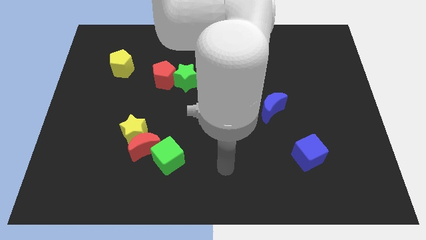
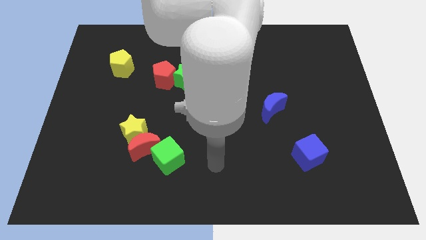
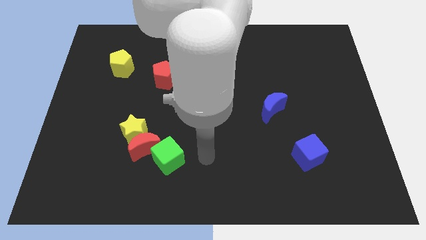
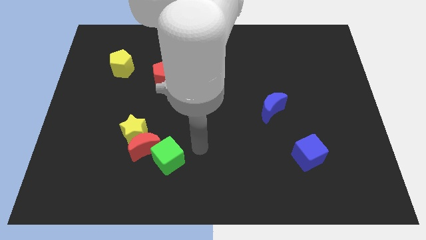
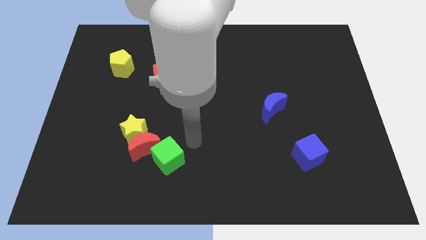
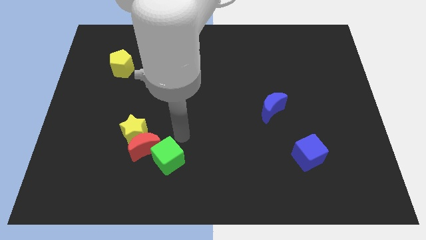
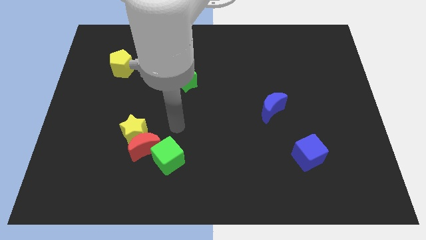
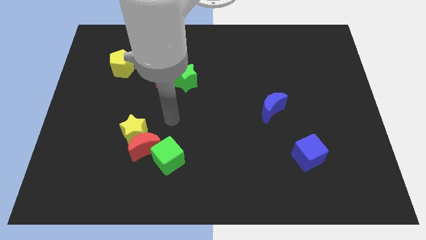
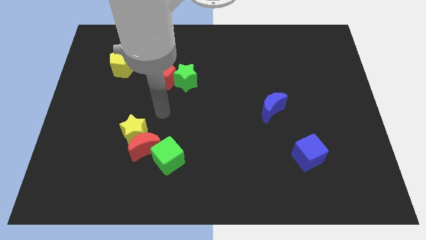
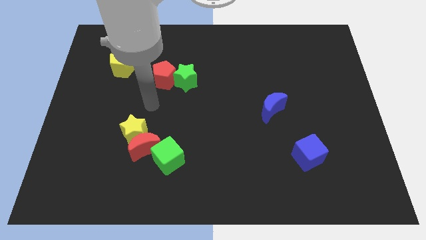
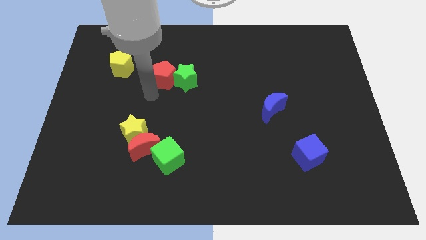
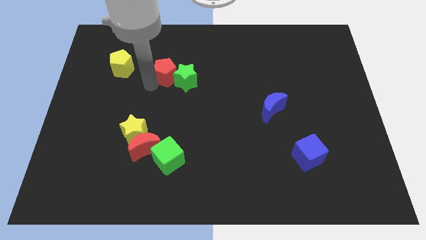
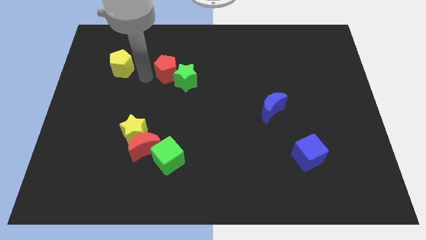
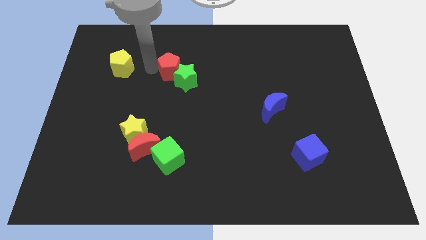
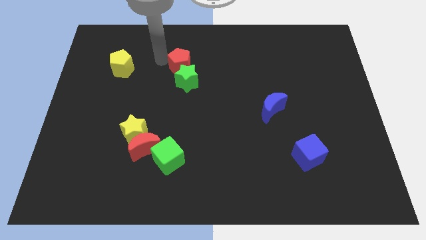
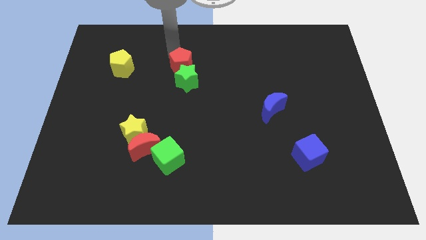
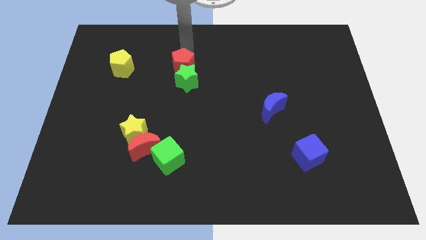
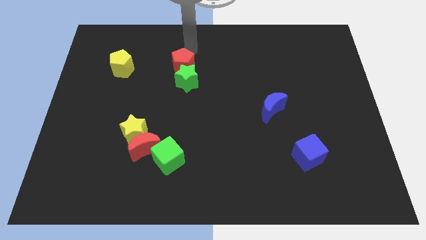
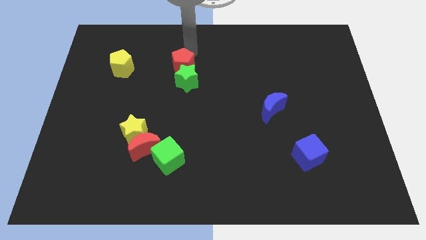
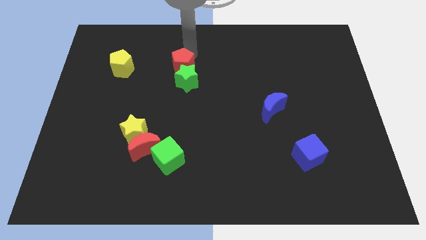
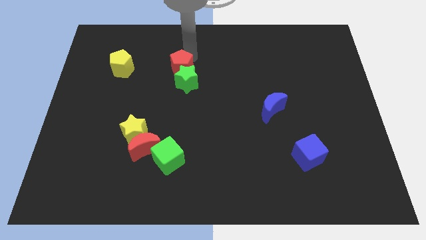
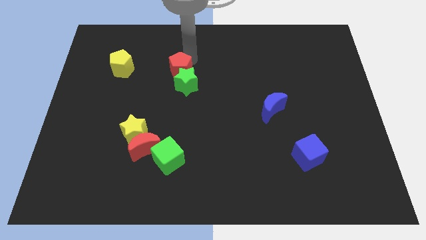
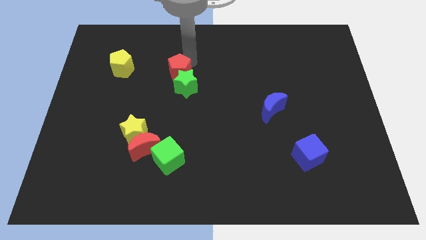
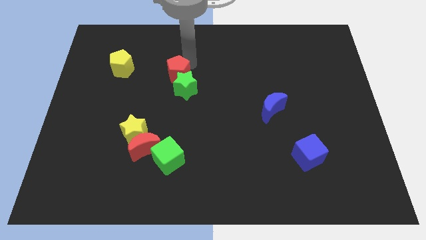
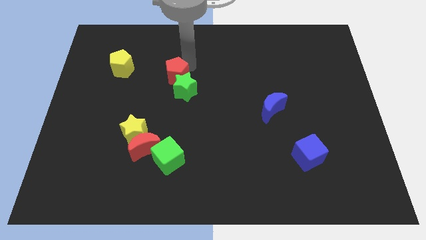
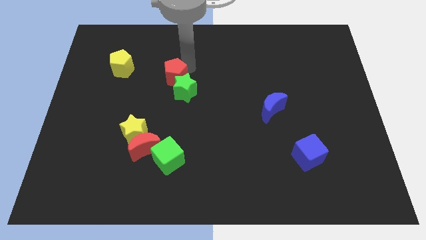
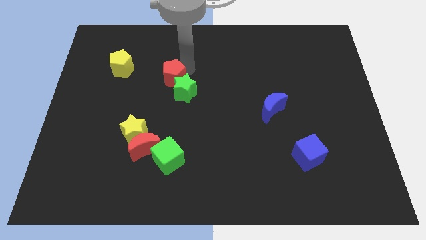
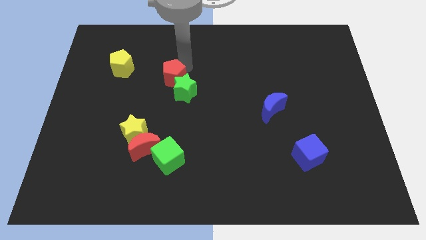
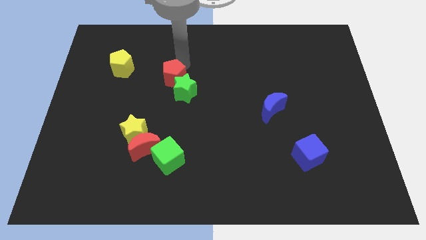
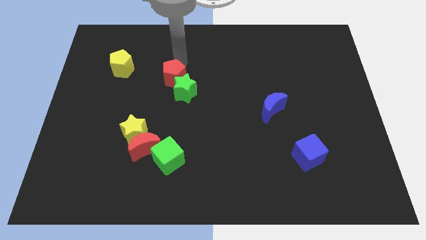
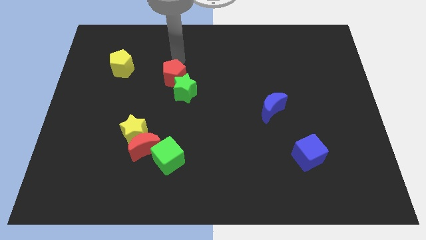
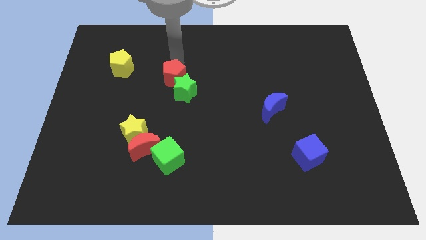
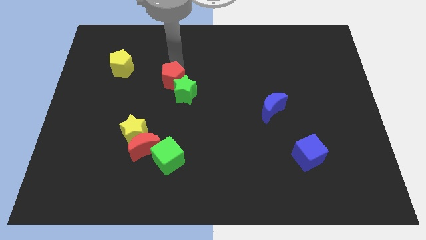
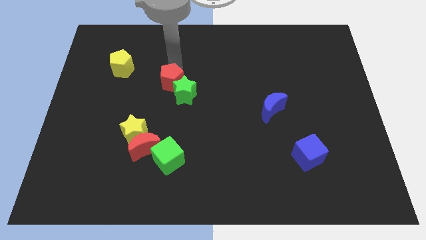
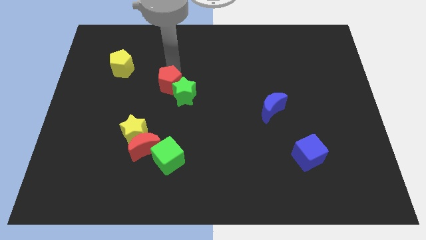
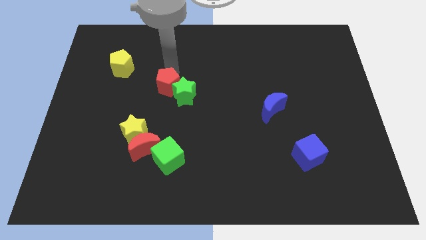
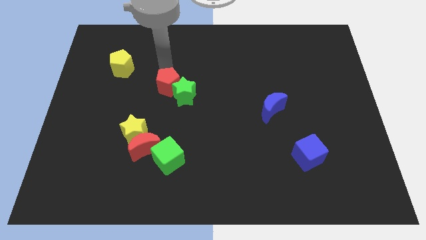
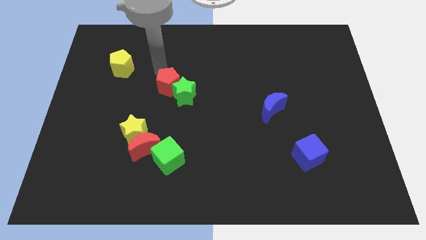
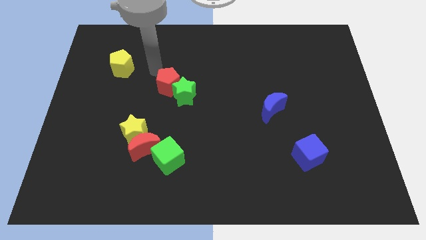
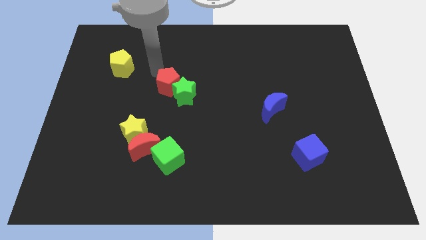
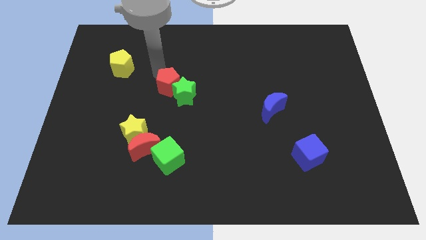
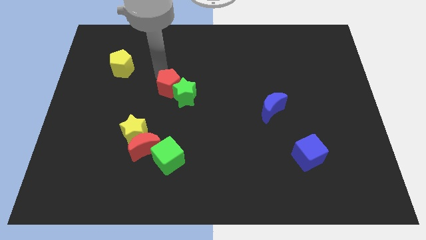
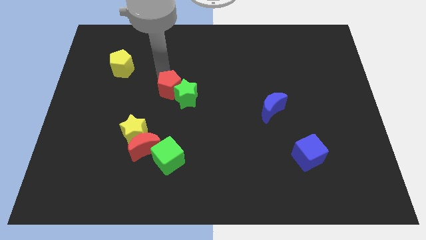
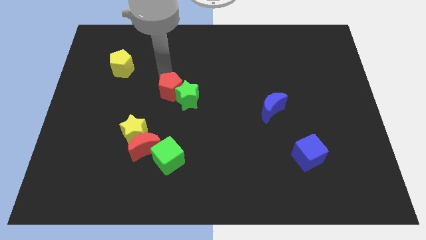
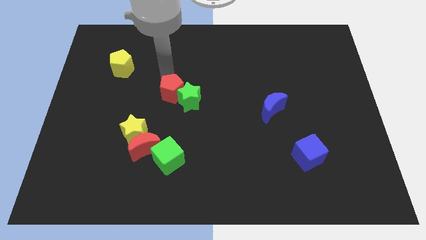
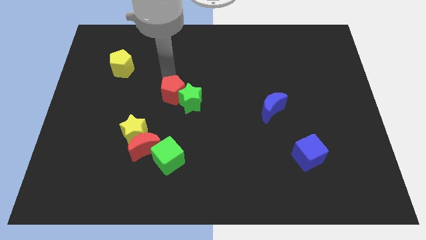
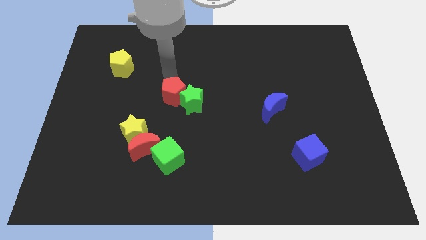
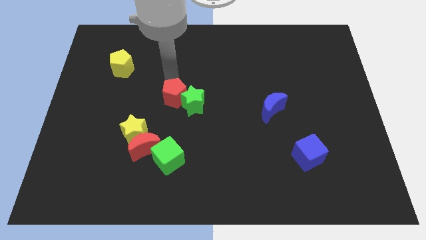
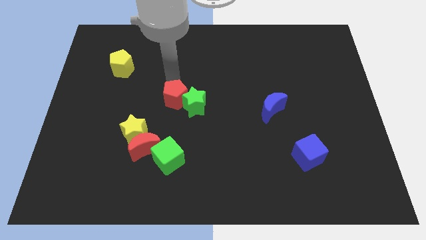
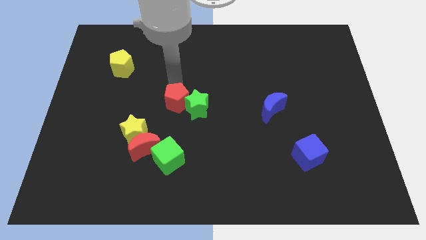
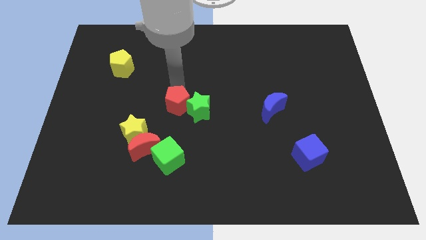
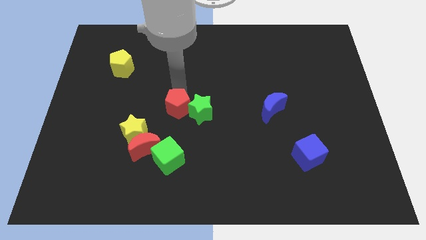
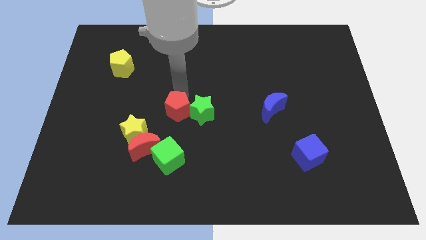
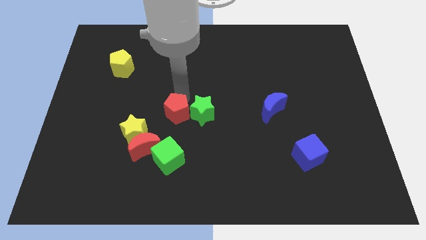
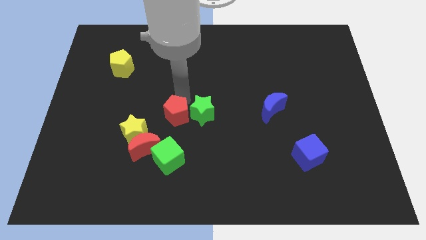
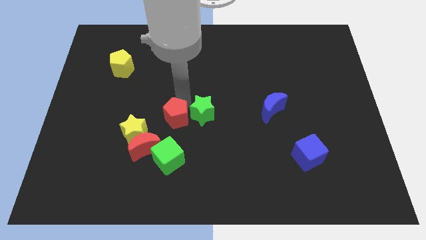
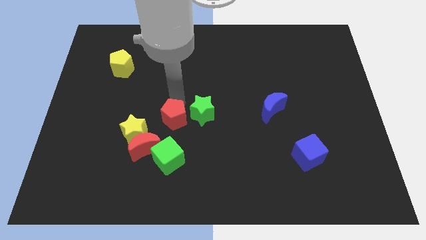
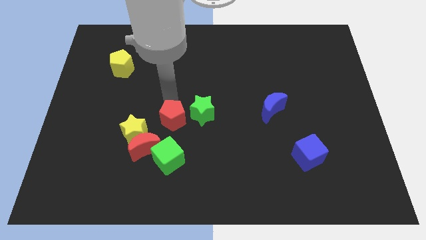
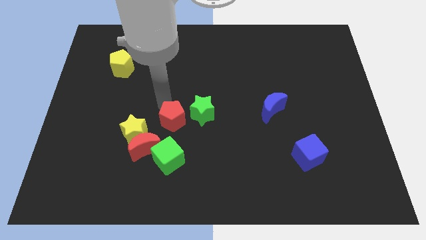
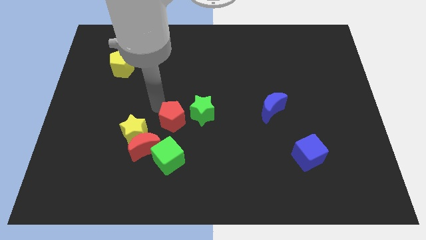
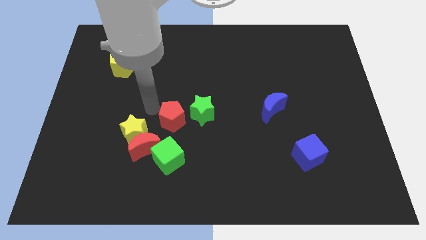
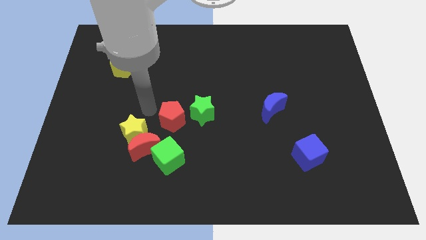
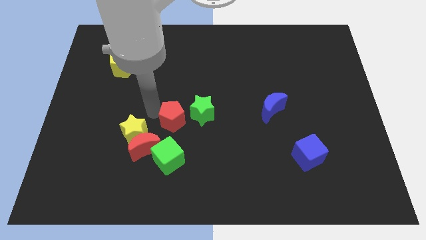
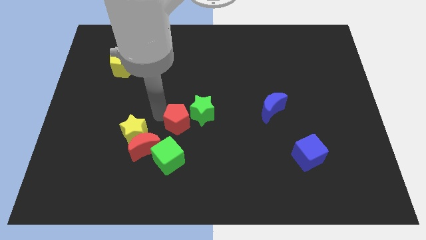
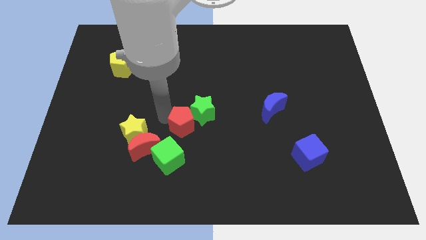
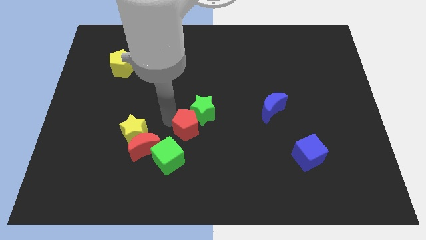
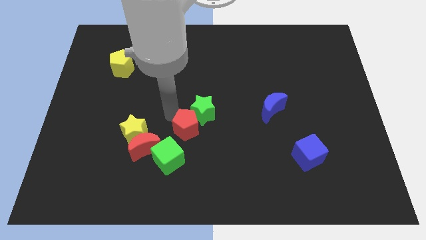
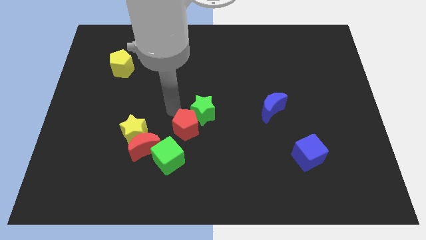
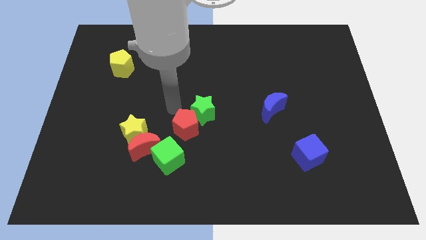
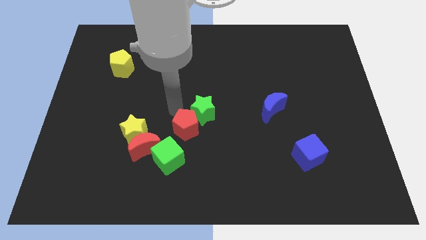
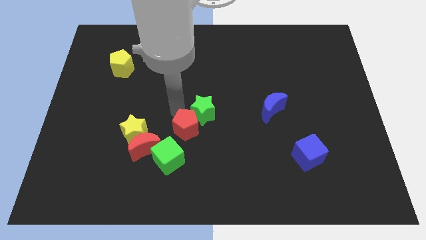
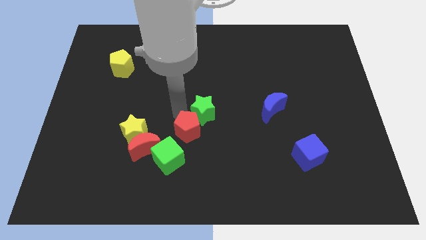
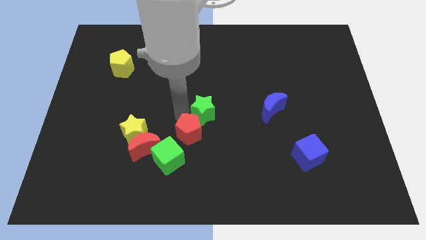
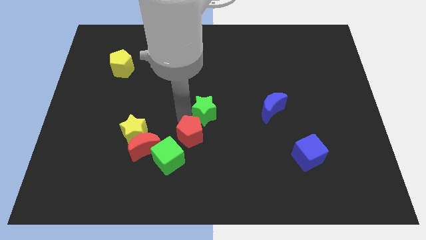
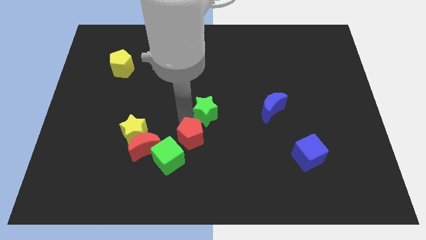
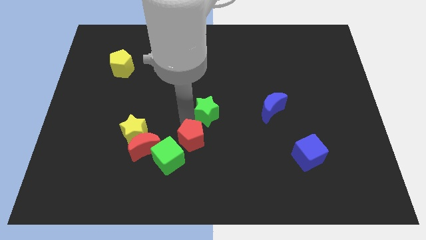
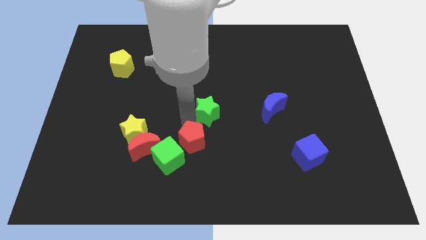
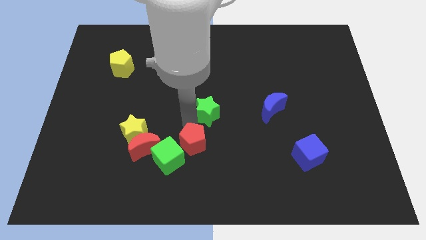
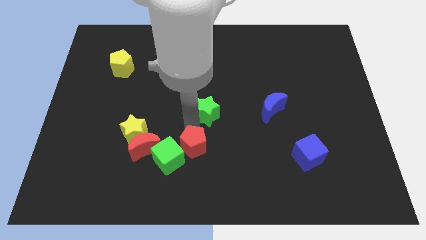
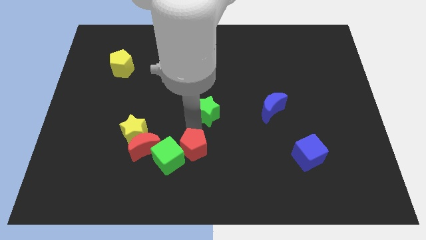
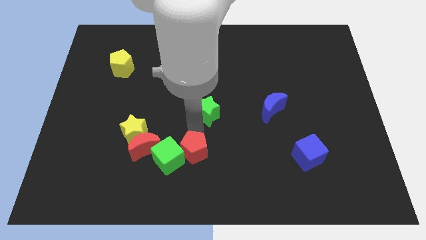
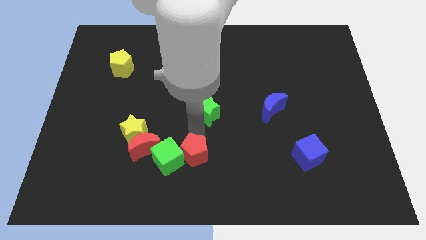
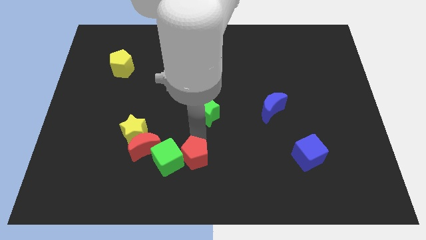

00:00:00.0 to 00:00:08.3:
move the red pentagon to the bottom side
